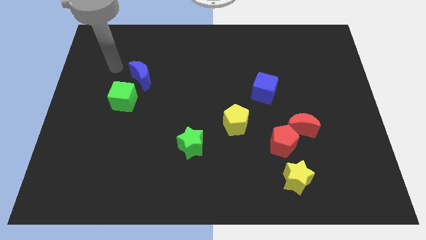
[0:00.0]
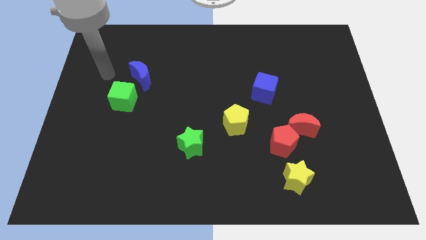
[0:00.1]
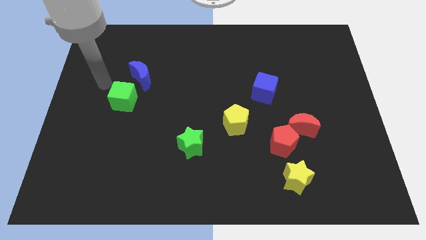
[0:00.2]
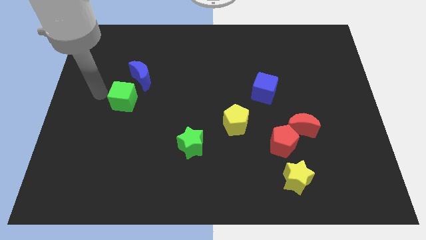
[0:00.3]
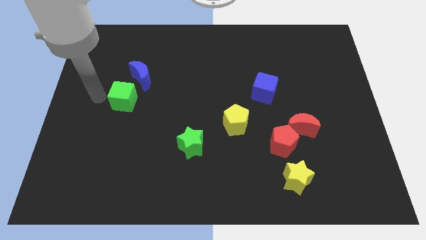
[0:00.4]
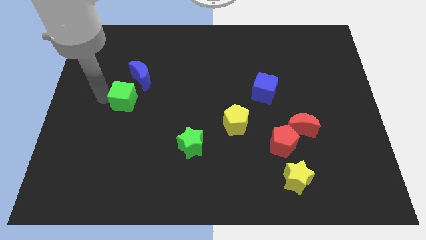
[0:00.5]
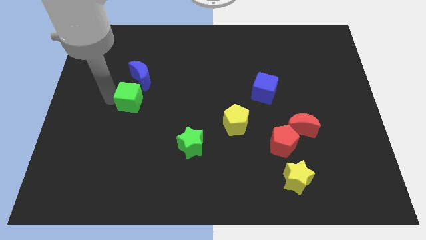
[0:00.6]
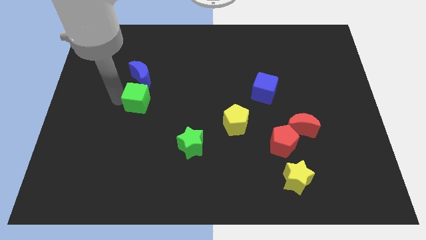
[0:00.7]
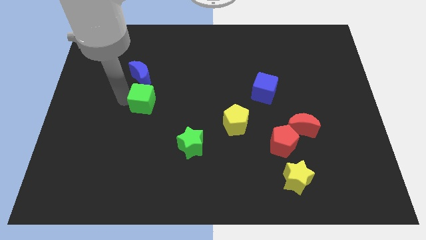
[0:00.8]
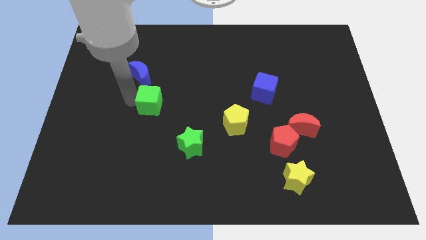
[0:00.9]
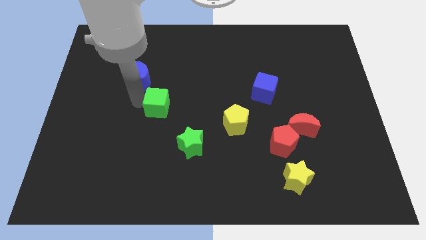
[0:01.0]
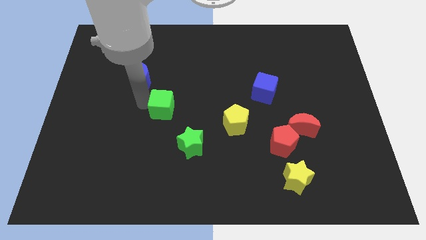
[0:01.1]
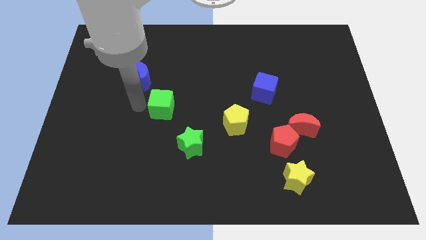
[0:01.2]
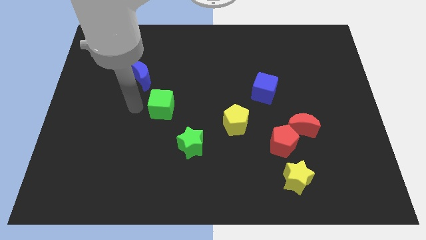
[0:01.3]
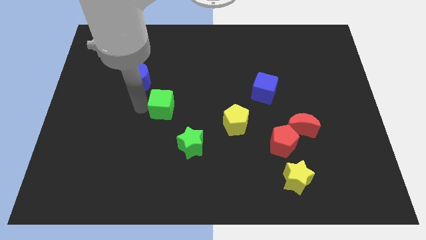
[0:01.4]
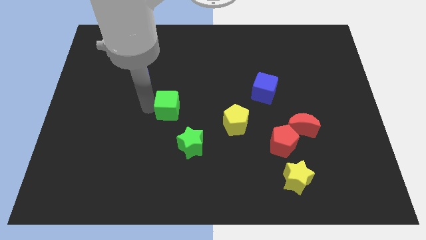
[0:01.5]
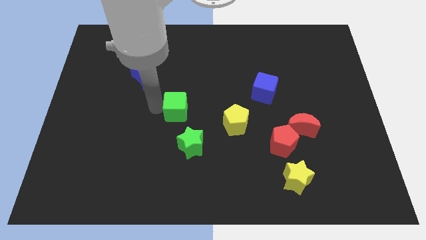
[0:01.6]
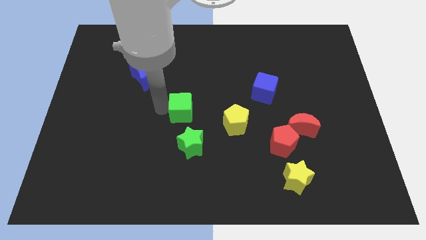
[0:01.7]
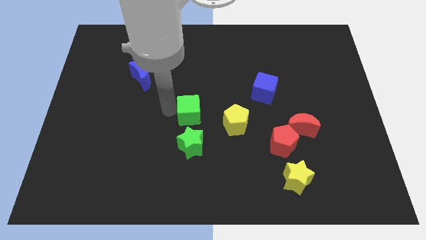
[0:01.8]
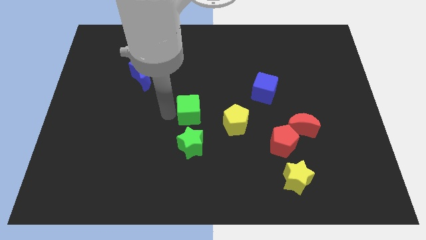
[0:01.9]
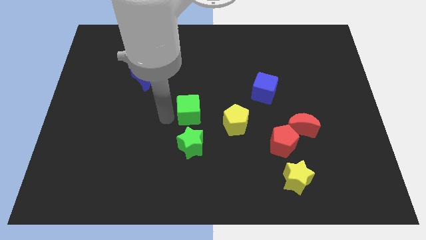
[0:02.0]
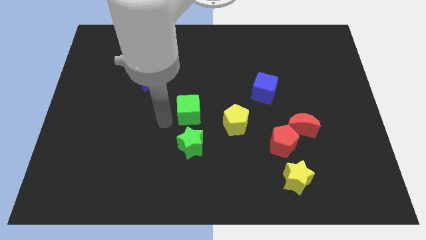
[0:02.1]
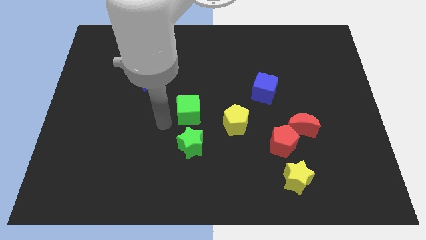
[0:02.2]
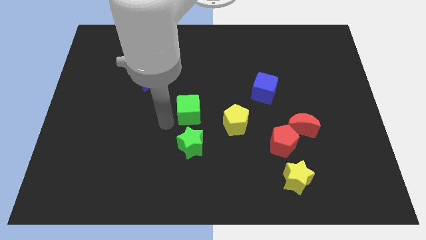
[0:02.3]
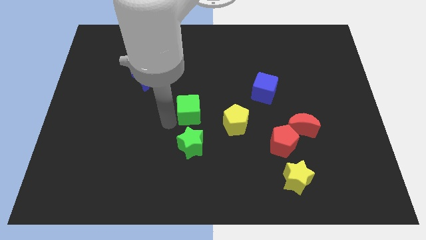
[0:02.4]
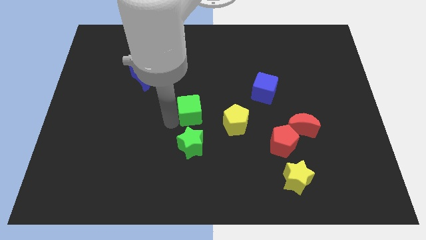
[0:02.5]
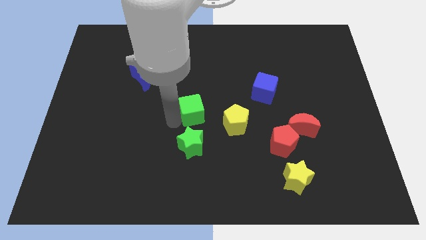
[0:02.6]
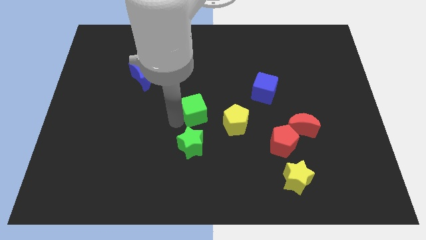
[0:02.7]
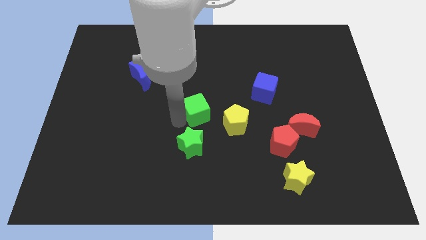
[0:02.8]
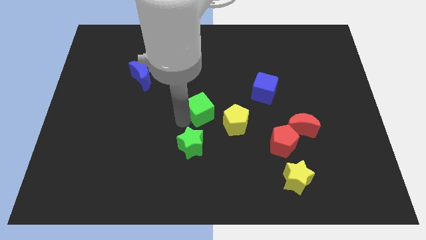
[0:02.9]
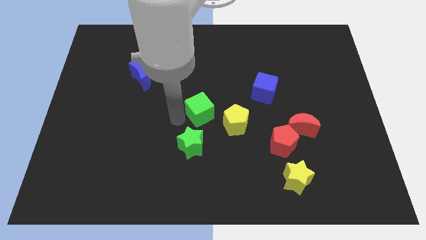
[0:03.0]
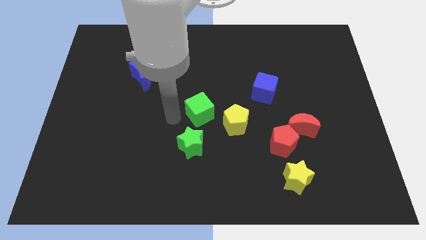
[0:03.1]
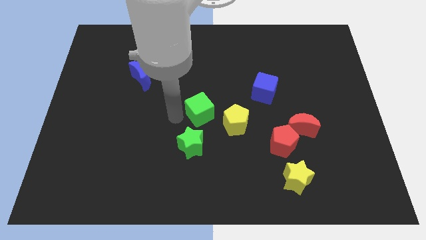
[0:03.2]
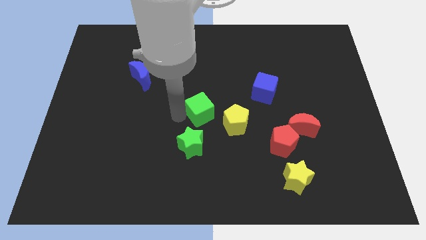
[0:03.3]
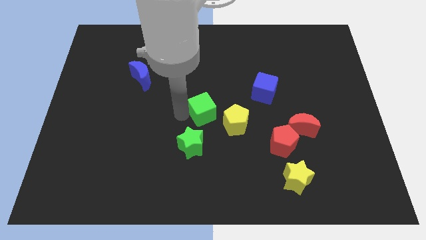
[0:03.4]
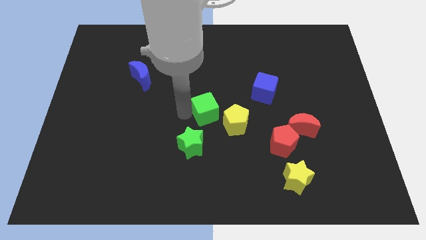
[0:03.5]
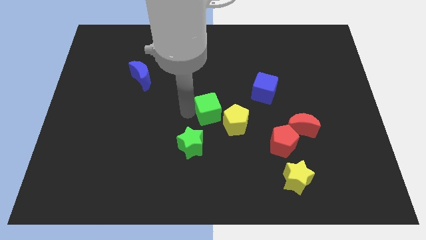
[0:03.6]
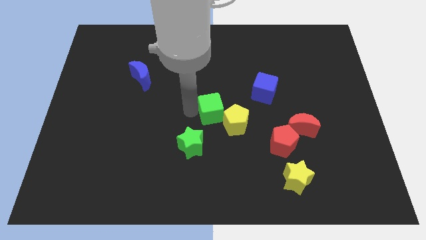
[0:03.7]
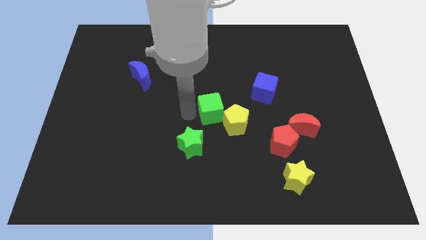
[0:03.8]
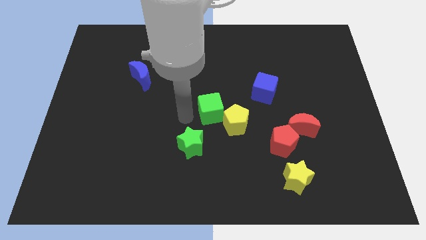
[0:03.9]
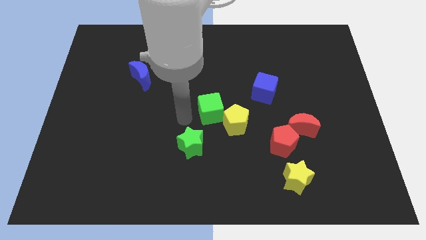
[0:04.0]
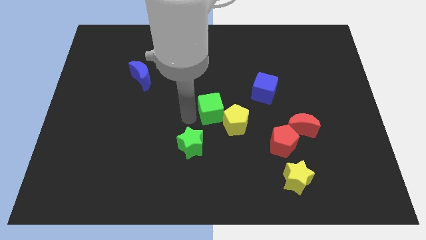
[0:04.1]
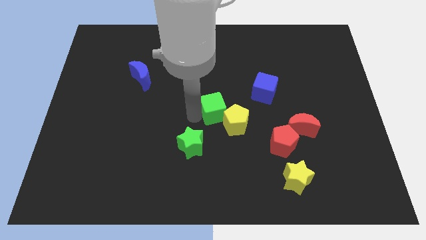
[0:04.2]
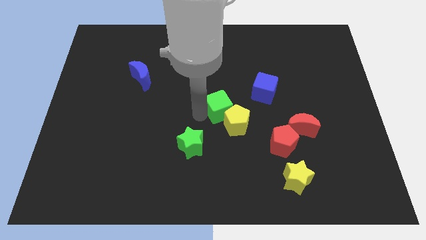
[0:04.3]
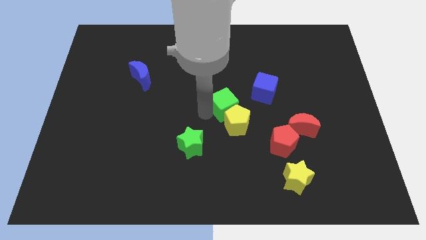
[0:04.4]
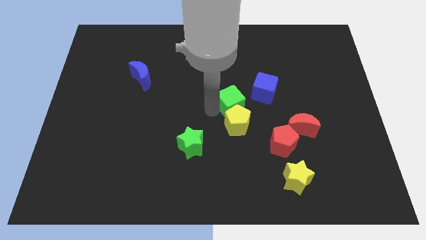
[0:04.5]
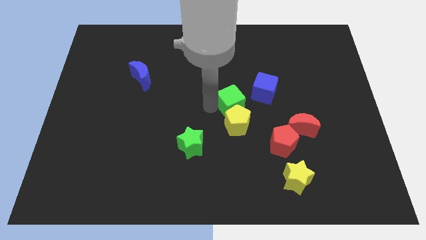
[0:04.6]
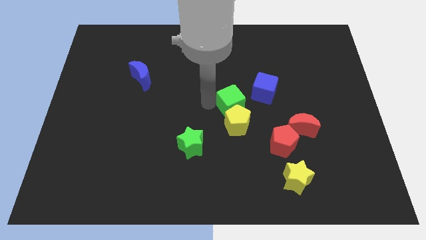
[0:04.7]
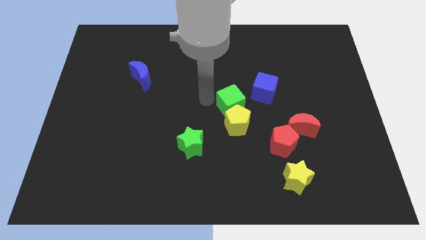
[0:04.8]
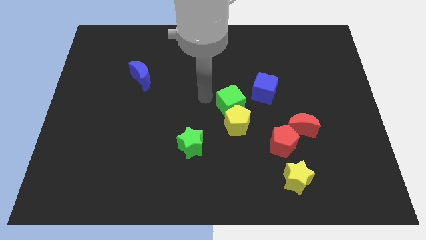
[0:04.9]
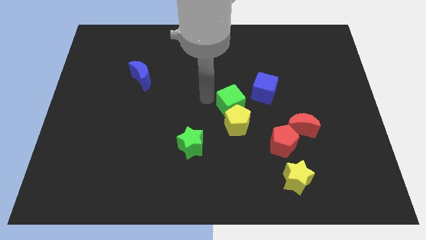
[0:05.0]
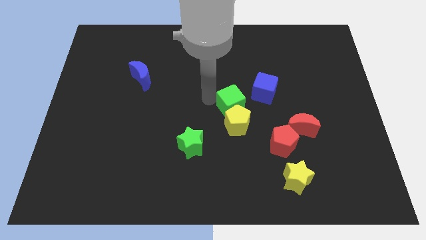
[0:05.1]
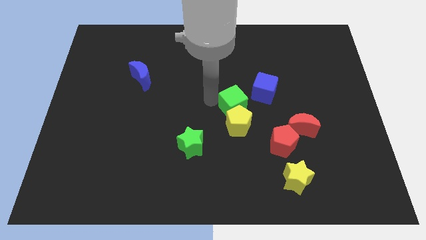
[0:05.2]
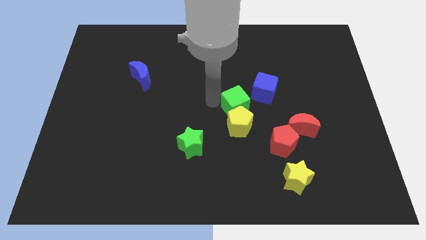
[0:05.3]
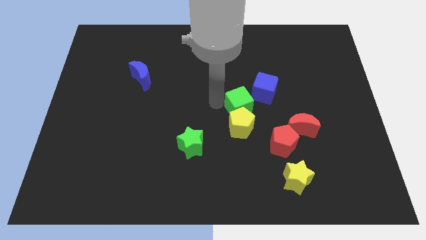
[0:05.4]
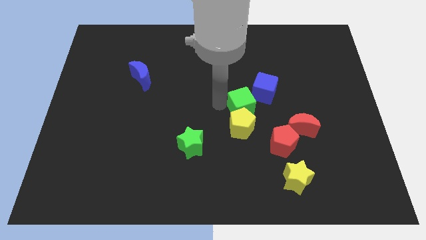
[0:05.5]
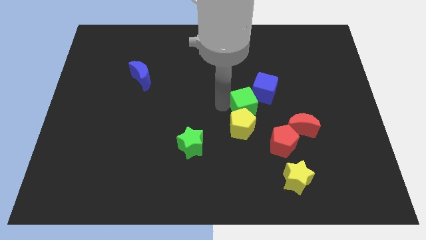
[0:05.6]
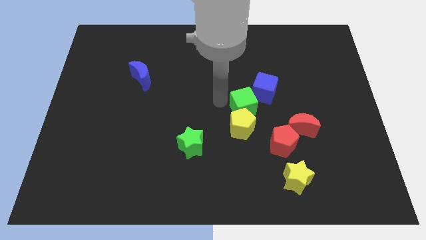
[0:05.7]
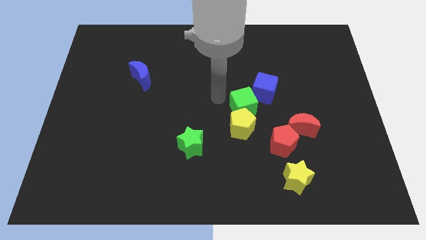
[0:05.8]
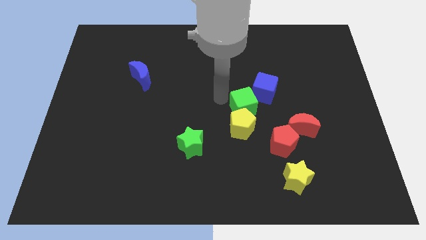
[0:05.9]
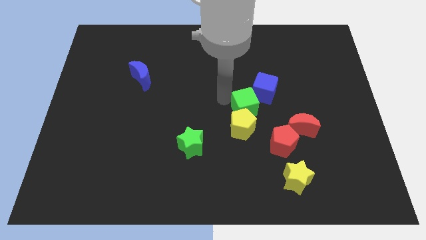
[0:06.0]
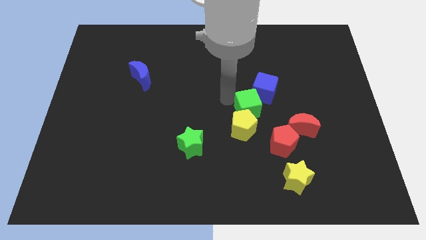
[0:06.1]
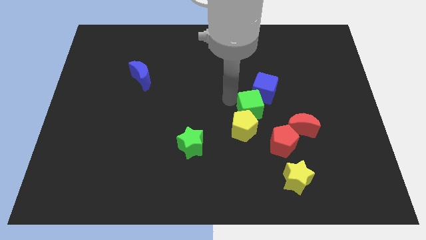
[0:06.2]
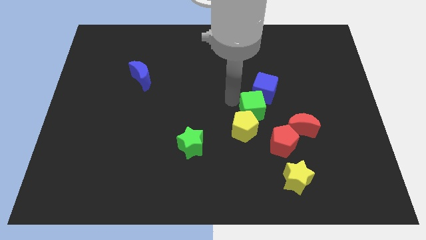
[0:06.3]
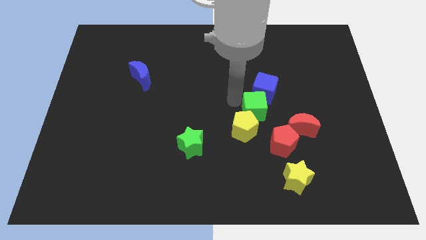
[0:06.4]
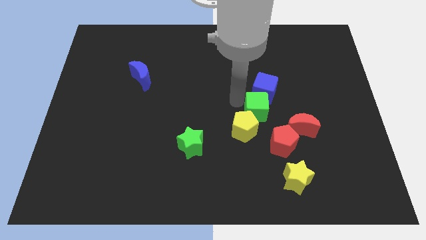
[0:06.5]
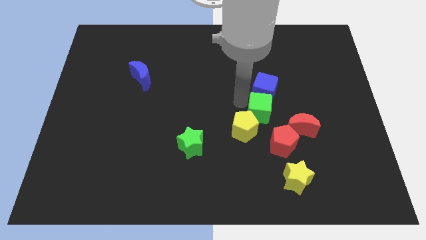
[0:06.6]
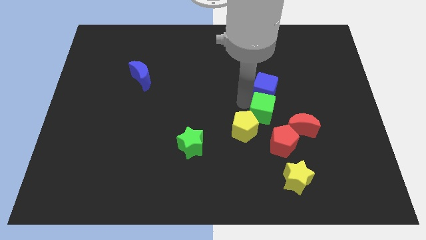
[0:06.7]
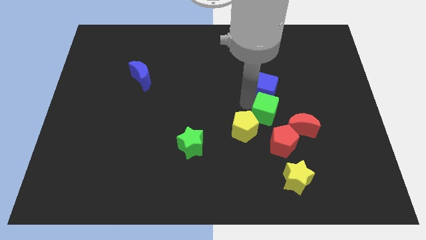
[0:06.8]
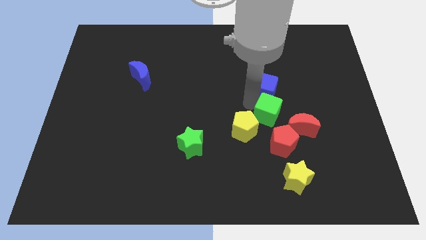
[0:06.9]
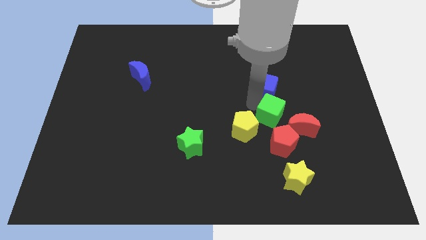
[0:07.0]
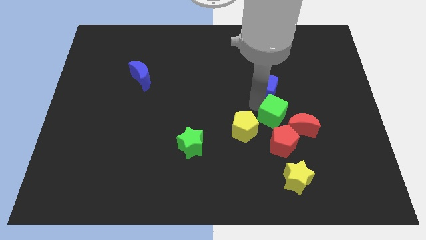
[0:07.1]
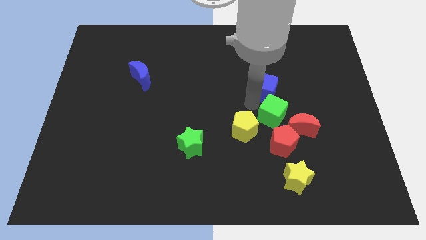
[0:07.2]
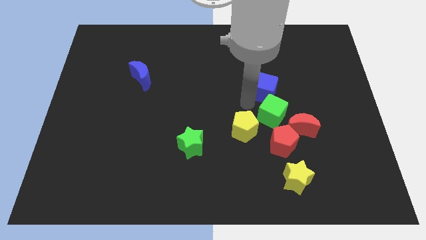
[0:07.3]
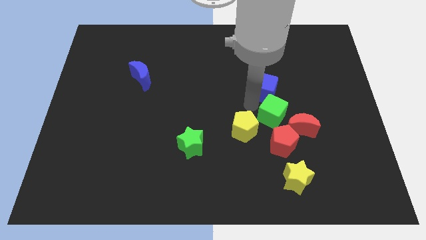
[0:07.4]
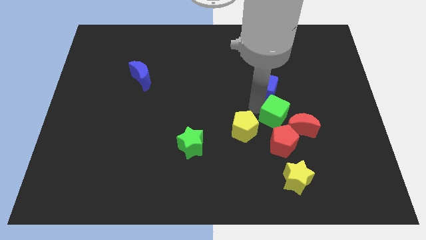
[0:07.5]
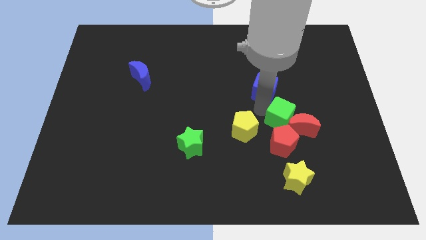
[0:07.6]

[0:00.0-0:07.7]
push the green cube close to the red moon
